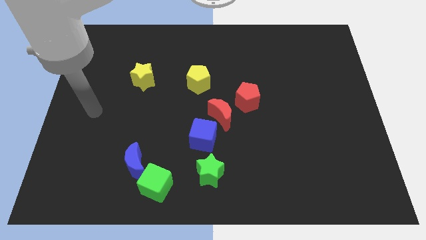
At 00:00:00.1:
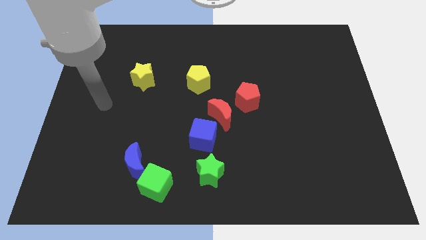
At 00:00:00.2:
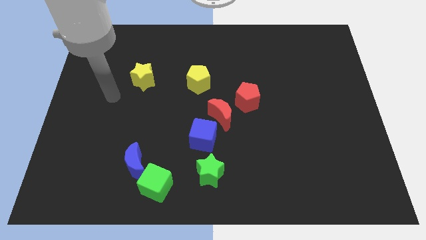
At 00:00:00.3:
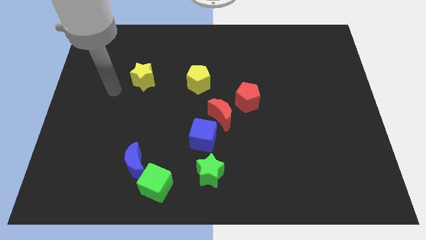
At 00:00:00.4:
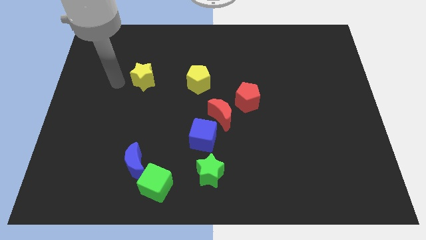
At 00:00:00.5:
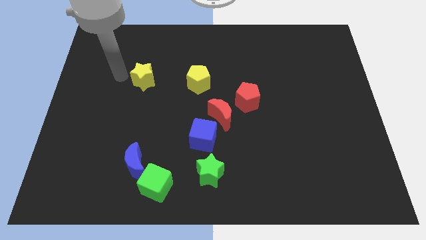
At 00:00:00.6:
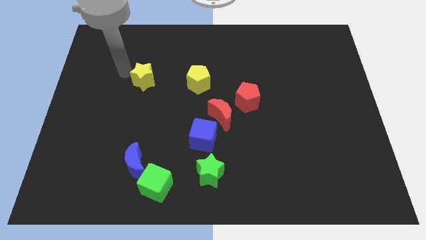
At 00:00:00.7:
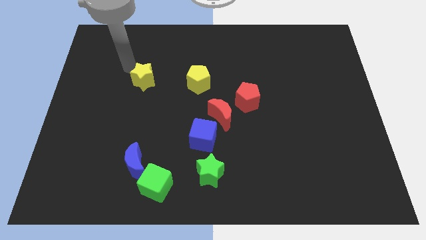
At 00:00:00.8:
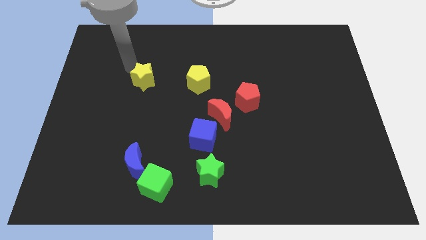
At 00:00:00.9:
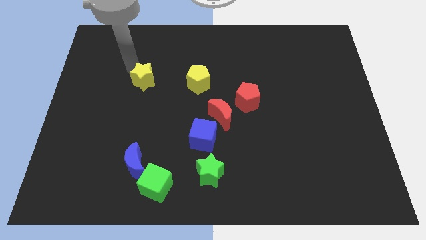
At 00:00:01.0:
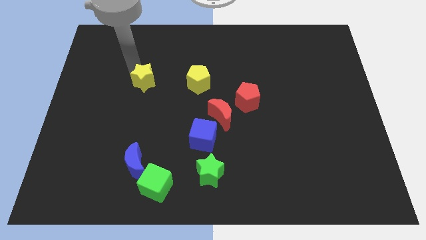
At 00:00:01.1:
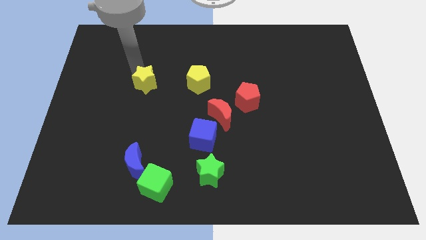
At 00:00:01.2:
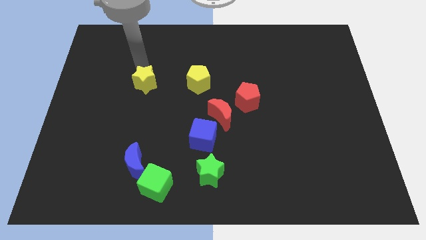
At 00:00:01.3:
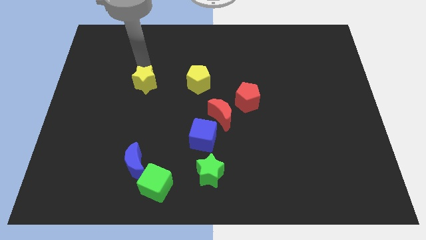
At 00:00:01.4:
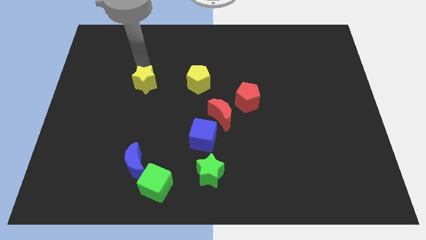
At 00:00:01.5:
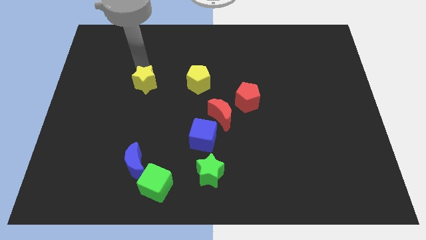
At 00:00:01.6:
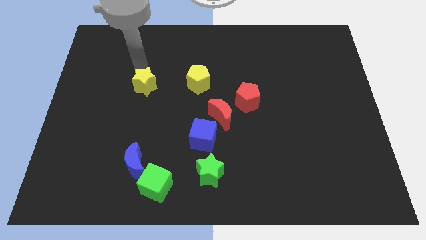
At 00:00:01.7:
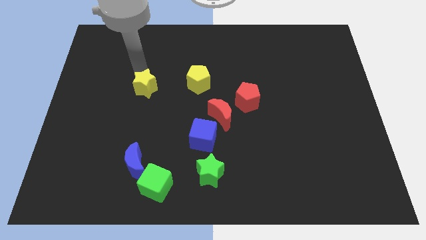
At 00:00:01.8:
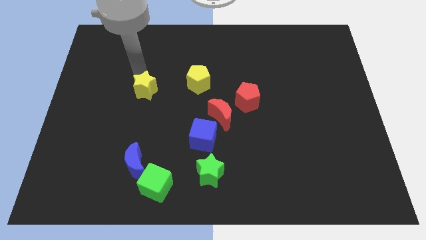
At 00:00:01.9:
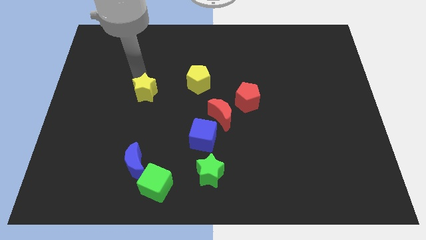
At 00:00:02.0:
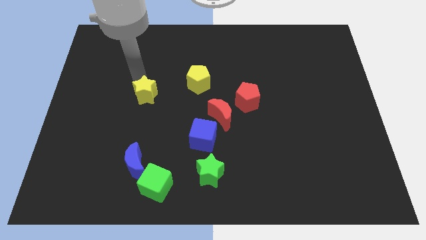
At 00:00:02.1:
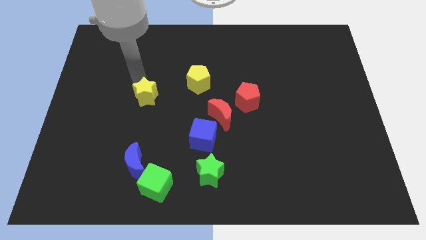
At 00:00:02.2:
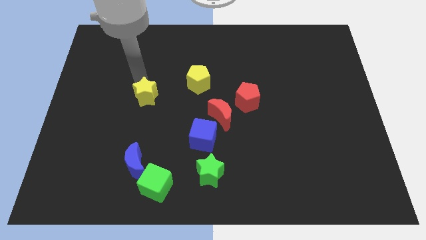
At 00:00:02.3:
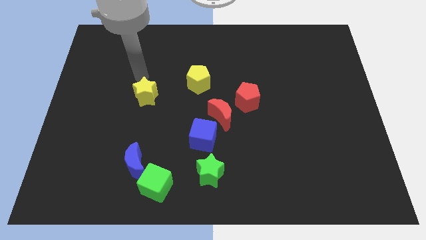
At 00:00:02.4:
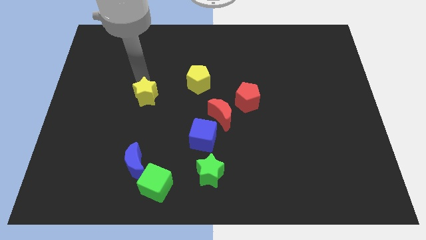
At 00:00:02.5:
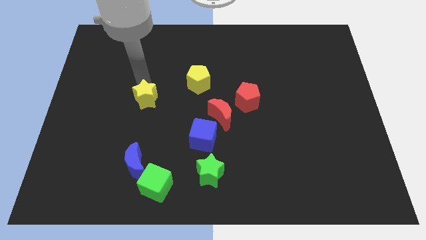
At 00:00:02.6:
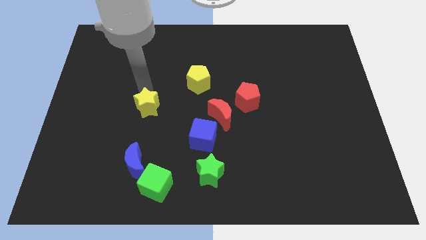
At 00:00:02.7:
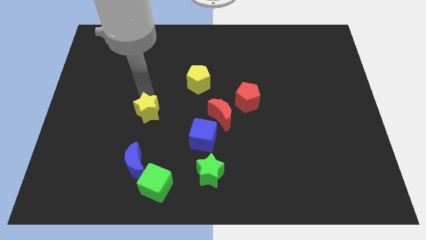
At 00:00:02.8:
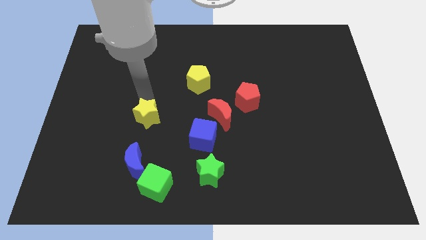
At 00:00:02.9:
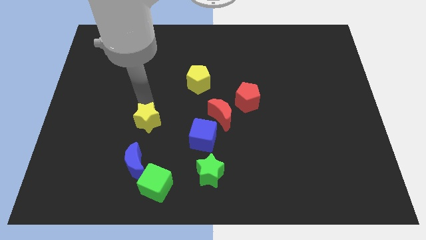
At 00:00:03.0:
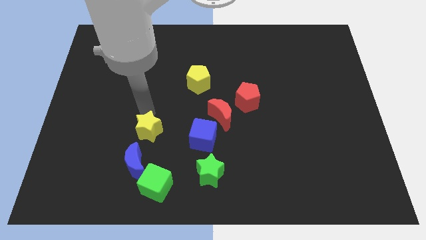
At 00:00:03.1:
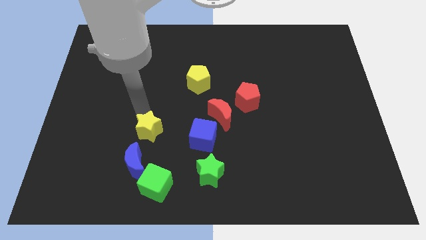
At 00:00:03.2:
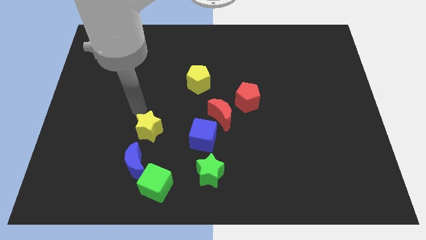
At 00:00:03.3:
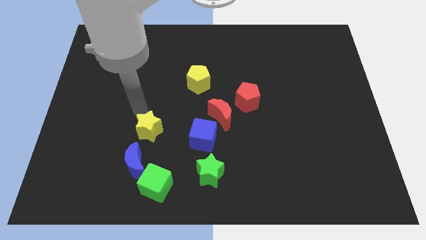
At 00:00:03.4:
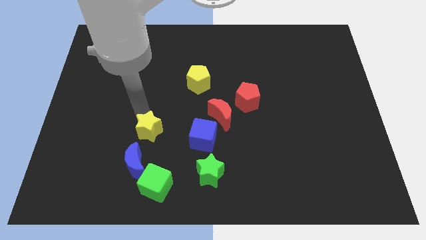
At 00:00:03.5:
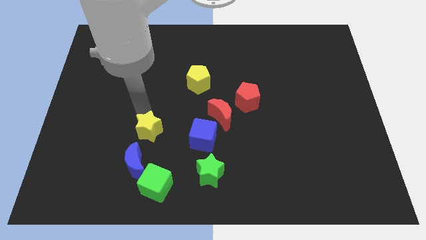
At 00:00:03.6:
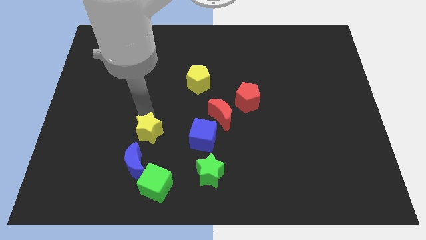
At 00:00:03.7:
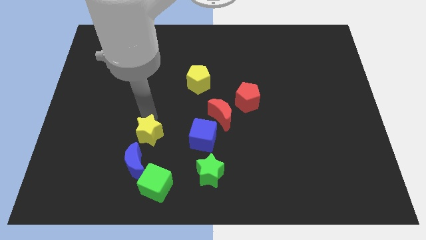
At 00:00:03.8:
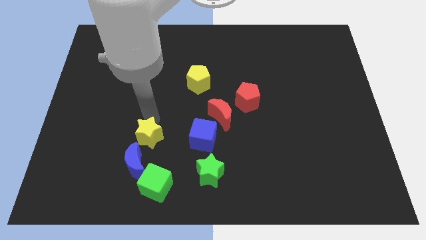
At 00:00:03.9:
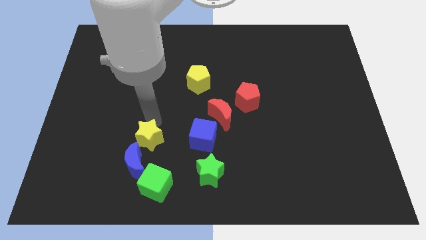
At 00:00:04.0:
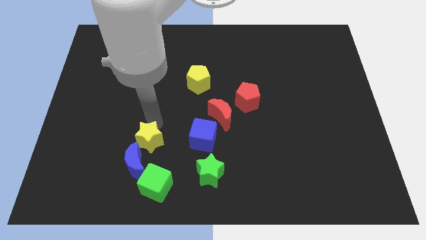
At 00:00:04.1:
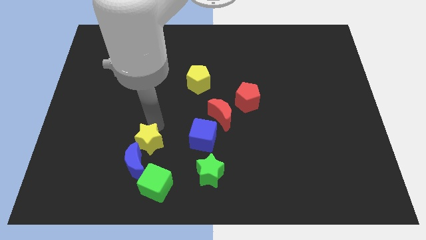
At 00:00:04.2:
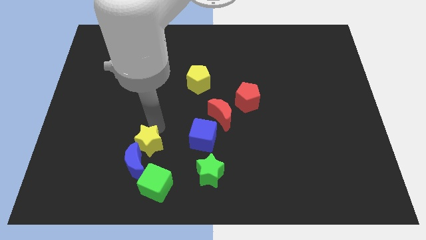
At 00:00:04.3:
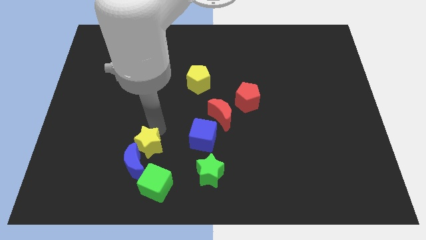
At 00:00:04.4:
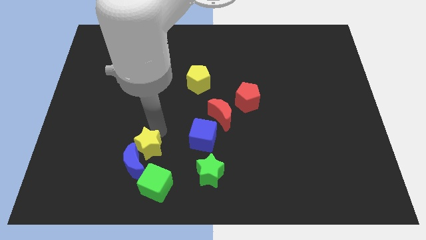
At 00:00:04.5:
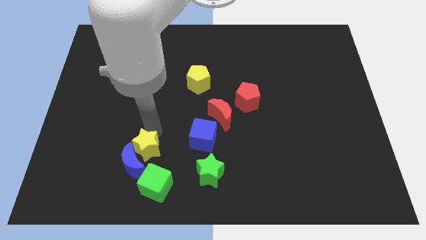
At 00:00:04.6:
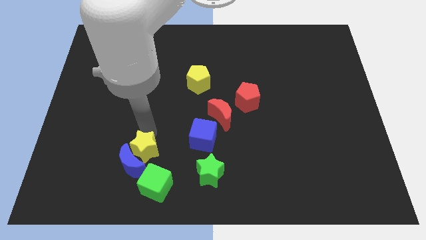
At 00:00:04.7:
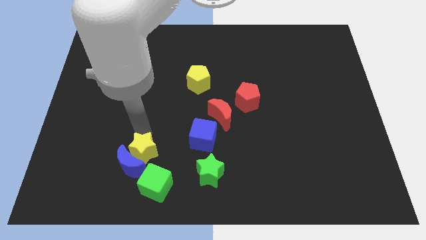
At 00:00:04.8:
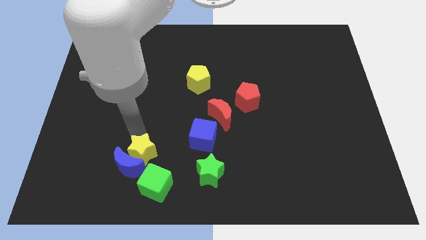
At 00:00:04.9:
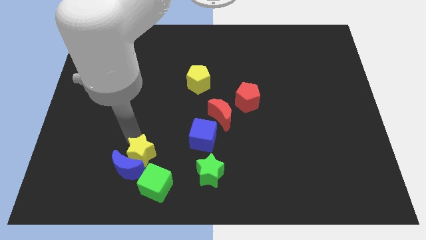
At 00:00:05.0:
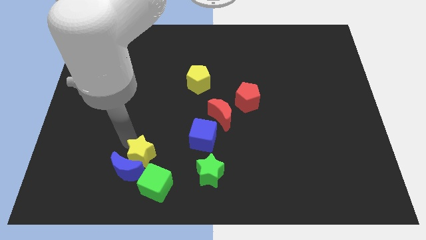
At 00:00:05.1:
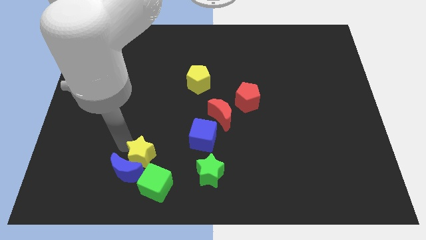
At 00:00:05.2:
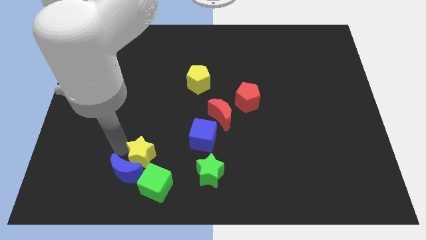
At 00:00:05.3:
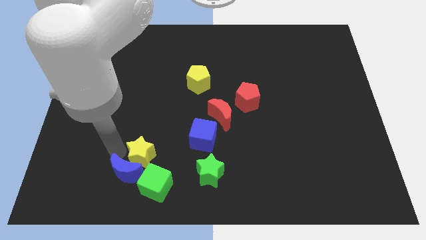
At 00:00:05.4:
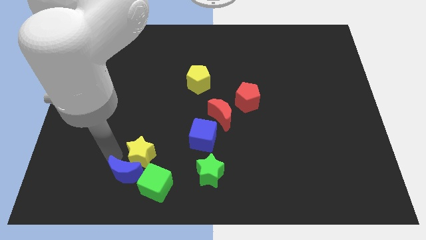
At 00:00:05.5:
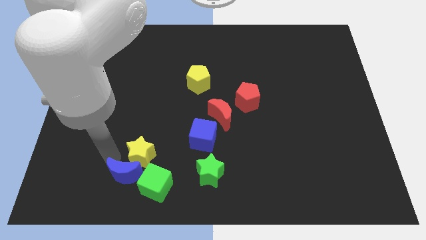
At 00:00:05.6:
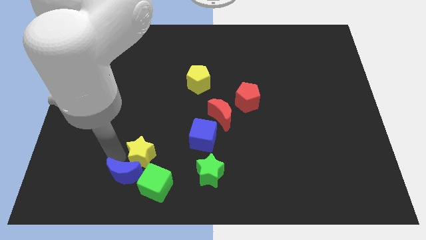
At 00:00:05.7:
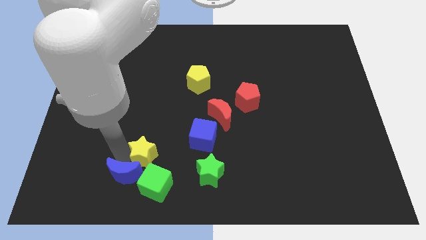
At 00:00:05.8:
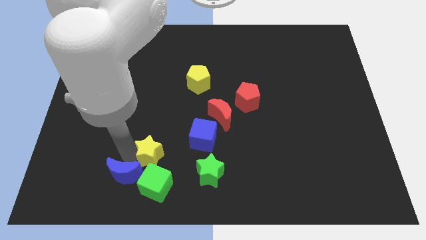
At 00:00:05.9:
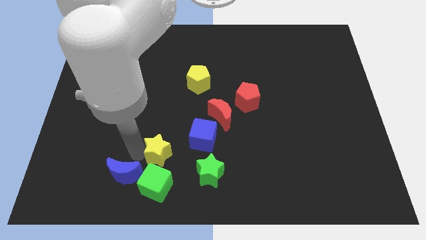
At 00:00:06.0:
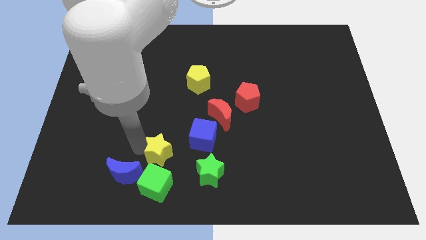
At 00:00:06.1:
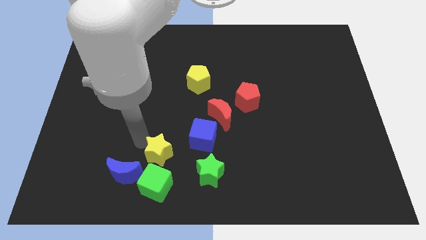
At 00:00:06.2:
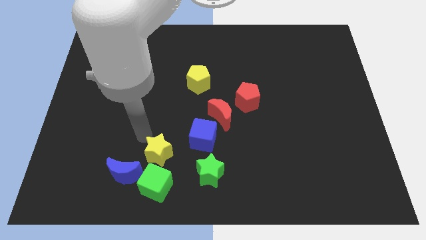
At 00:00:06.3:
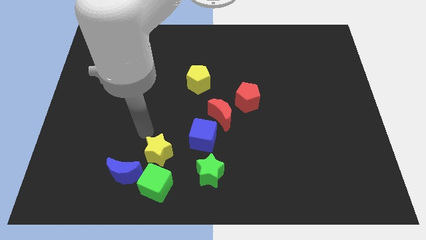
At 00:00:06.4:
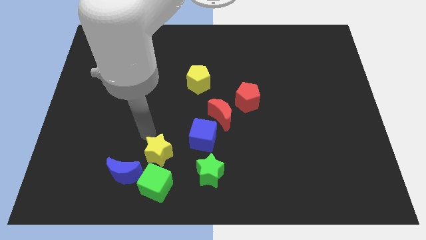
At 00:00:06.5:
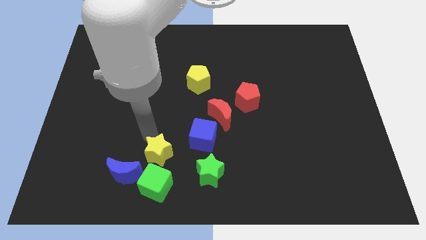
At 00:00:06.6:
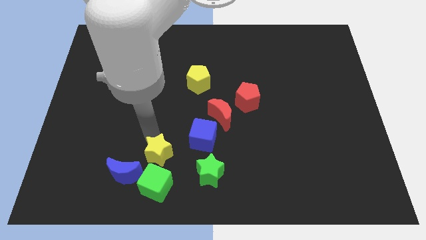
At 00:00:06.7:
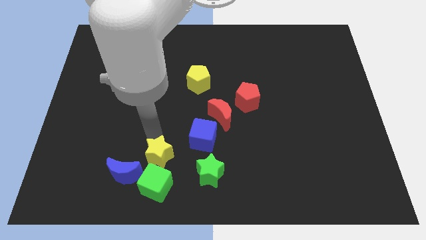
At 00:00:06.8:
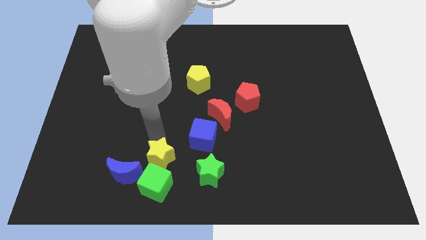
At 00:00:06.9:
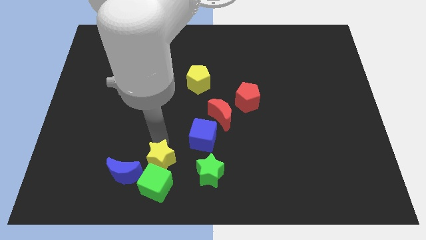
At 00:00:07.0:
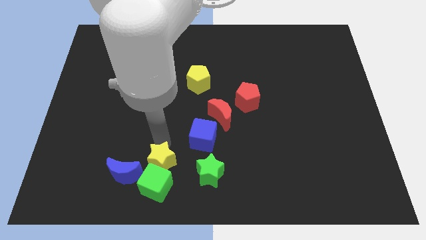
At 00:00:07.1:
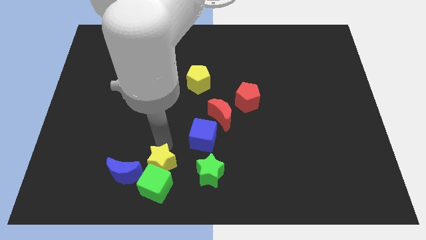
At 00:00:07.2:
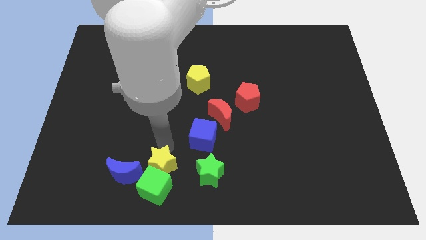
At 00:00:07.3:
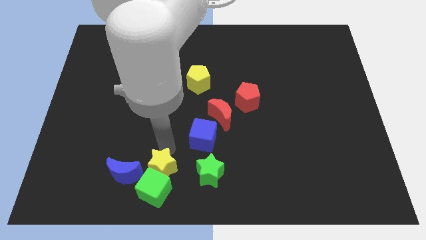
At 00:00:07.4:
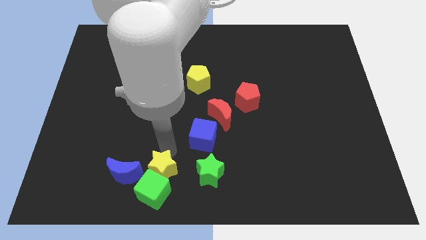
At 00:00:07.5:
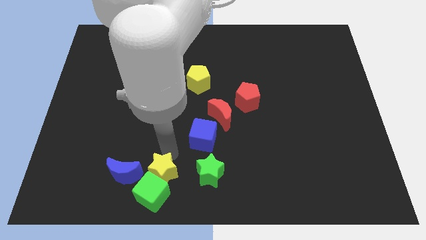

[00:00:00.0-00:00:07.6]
slide the yellow star to the bottom side
